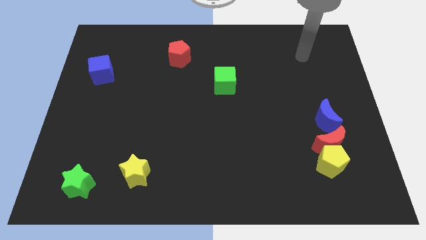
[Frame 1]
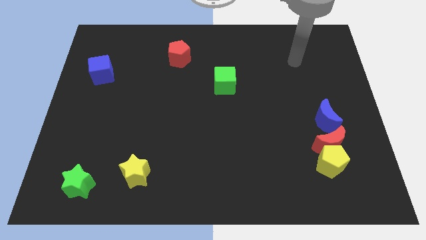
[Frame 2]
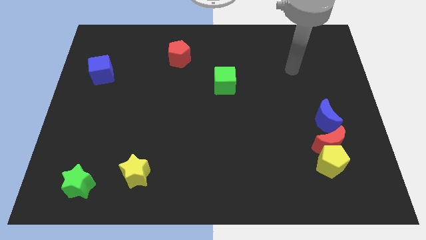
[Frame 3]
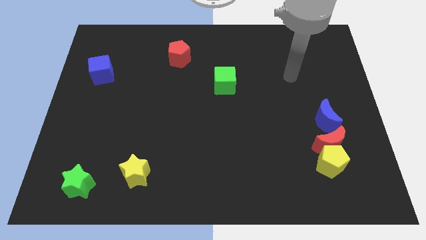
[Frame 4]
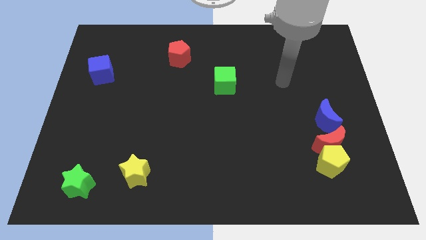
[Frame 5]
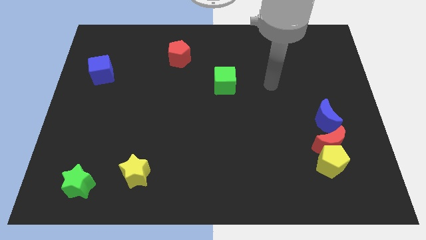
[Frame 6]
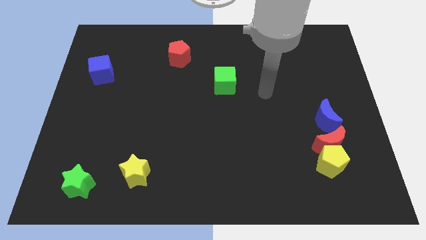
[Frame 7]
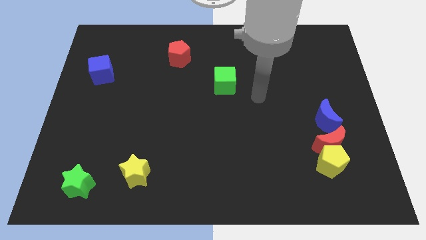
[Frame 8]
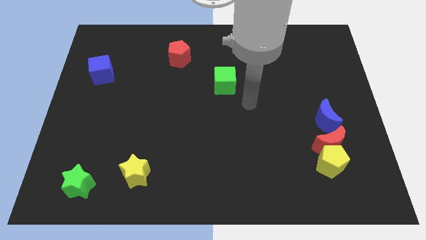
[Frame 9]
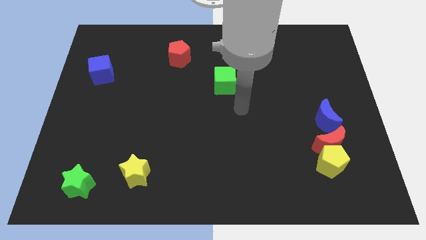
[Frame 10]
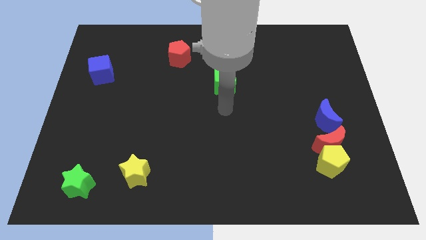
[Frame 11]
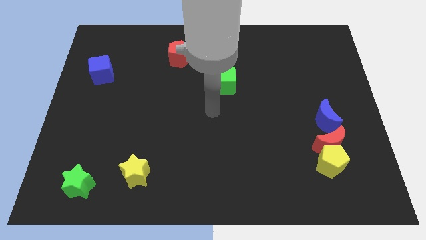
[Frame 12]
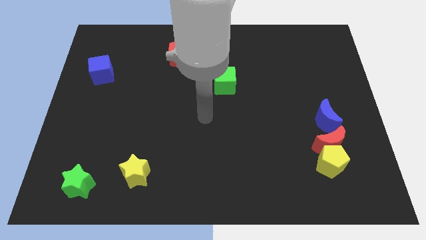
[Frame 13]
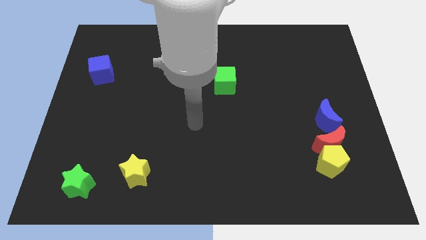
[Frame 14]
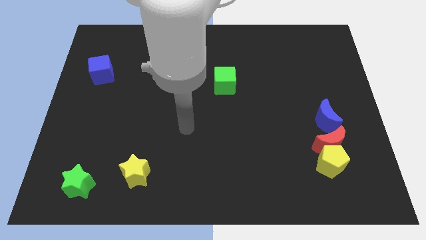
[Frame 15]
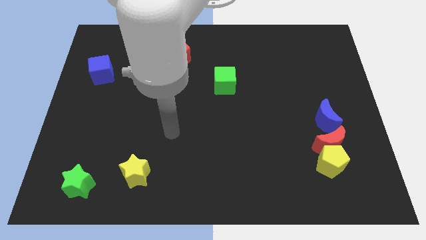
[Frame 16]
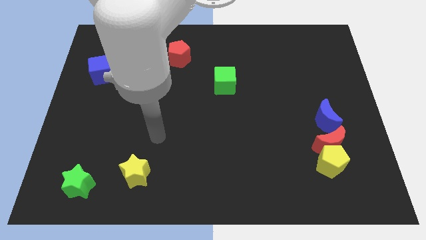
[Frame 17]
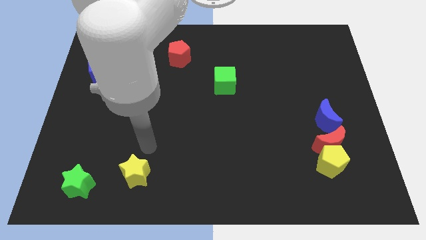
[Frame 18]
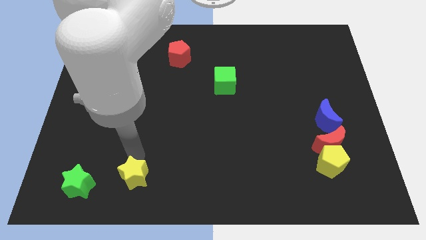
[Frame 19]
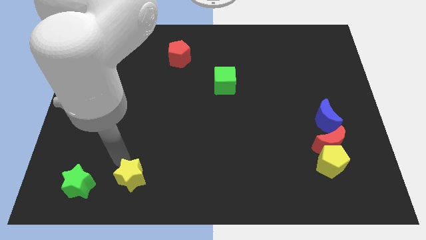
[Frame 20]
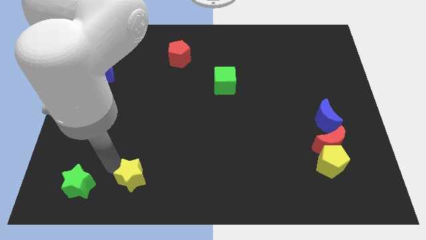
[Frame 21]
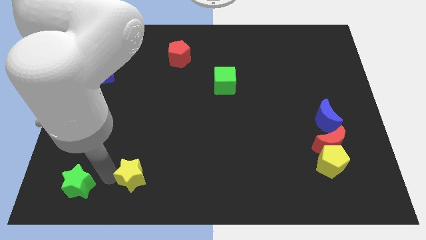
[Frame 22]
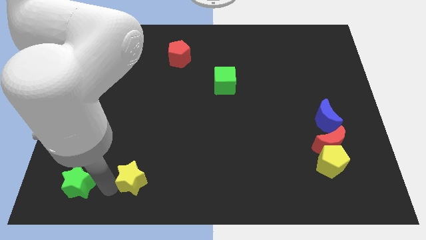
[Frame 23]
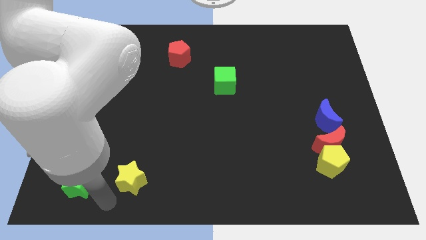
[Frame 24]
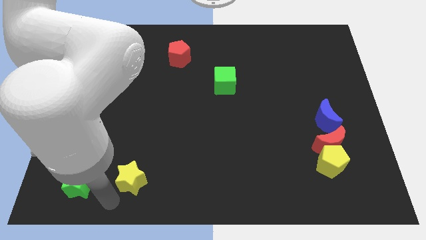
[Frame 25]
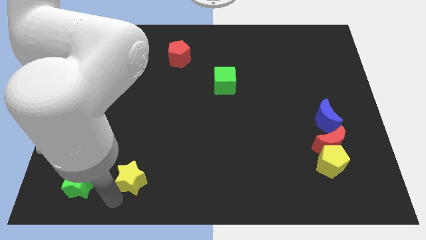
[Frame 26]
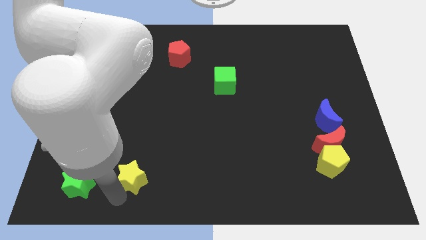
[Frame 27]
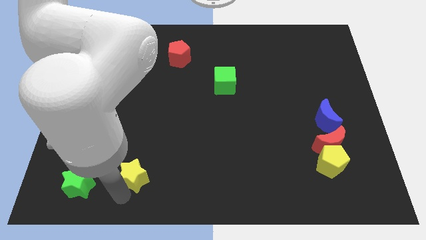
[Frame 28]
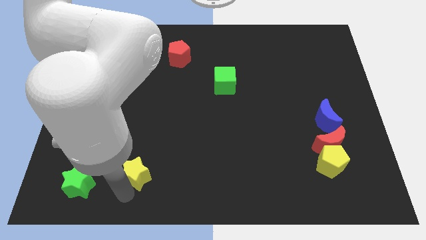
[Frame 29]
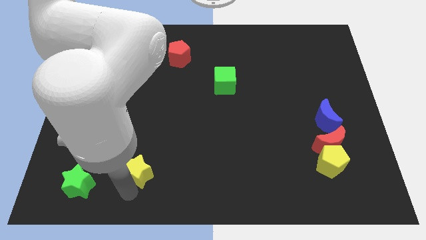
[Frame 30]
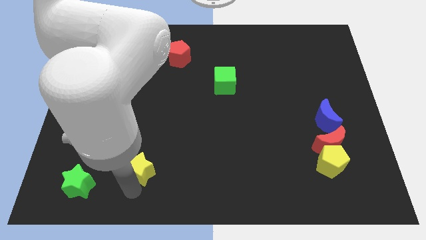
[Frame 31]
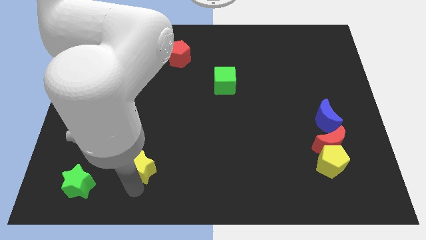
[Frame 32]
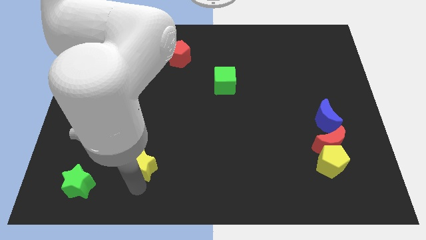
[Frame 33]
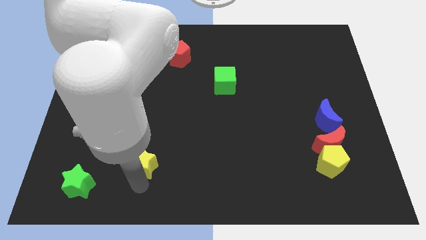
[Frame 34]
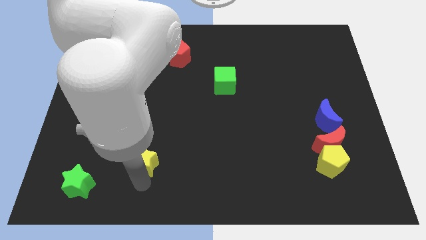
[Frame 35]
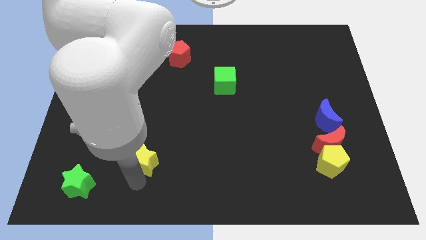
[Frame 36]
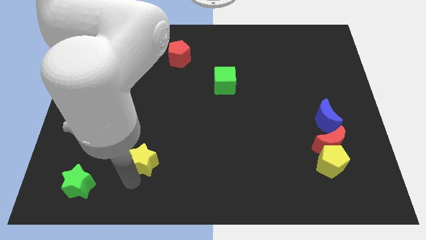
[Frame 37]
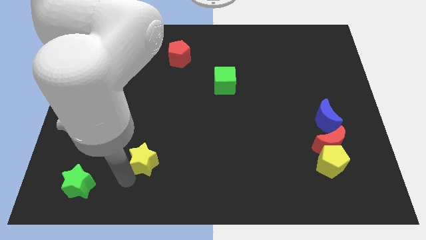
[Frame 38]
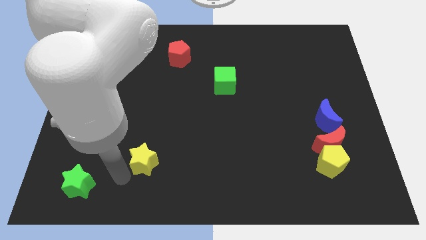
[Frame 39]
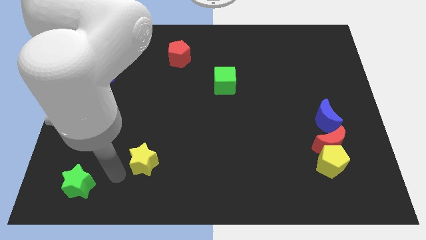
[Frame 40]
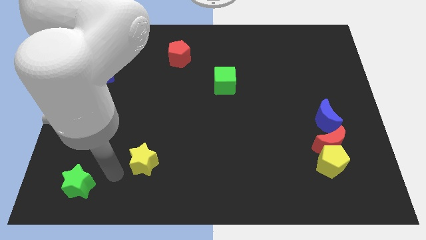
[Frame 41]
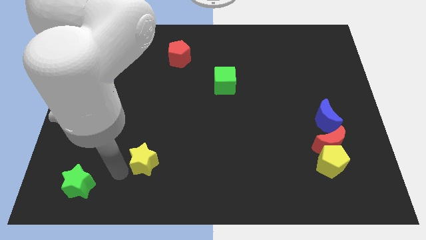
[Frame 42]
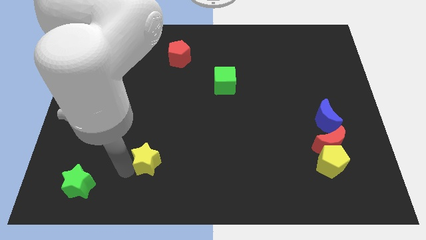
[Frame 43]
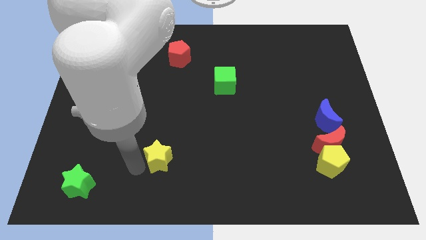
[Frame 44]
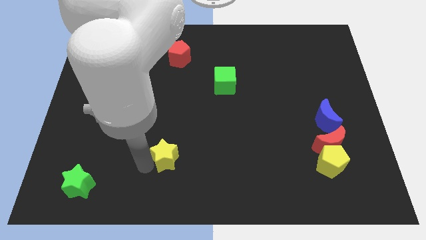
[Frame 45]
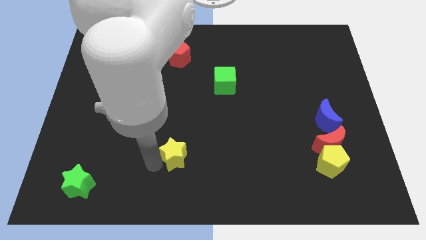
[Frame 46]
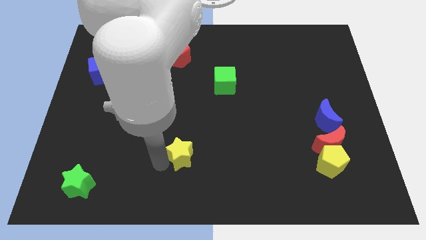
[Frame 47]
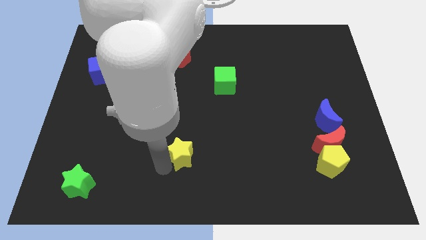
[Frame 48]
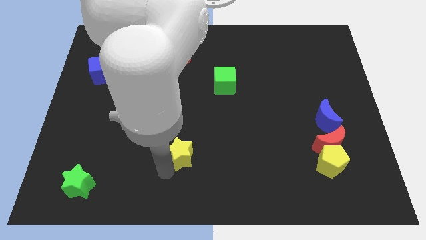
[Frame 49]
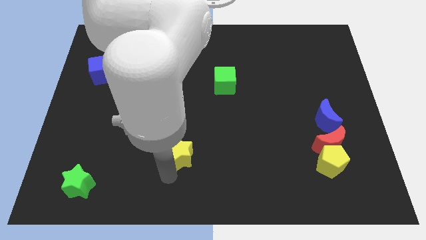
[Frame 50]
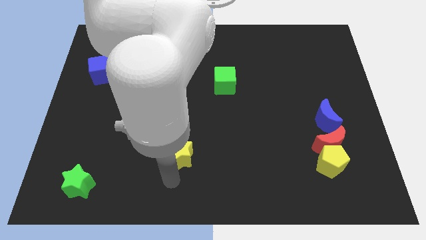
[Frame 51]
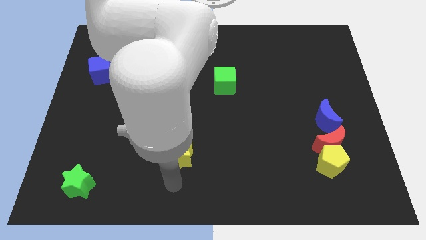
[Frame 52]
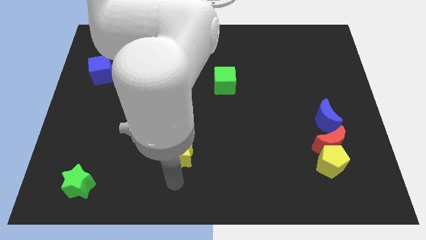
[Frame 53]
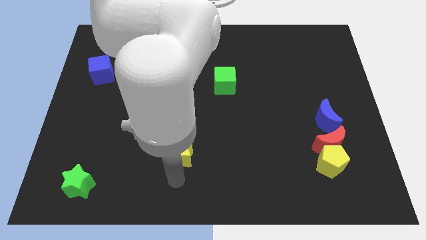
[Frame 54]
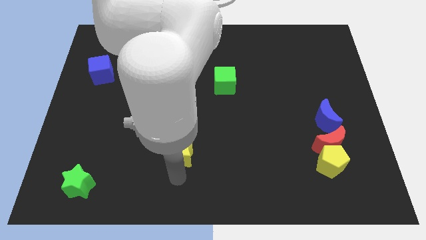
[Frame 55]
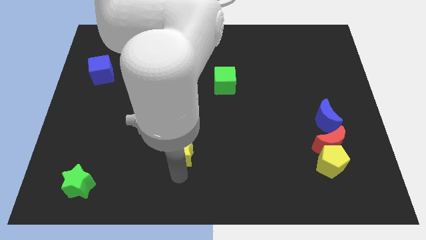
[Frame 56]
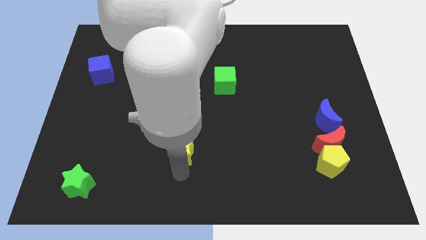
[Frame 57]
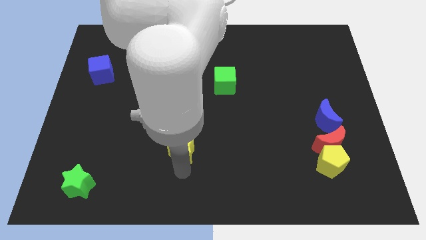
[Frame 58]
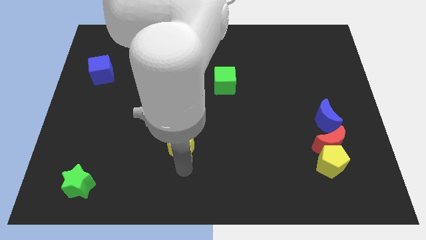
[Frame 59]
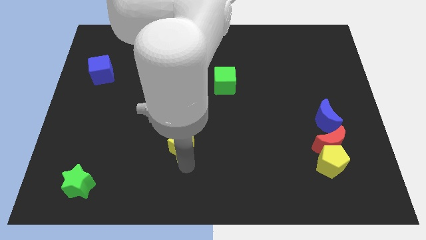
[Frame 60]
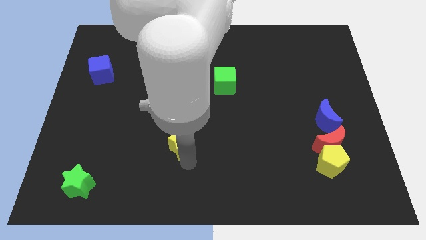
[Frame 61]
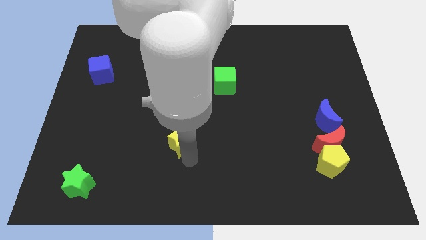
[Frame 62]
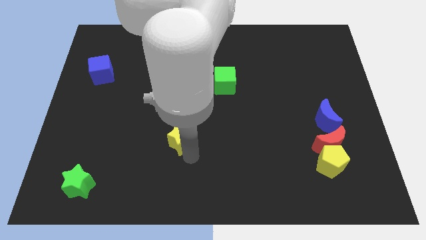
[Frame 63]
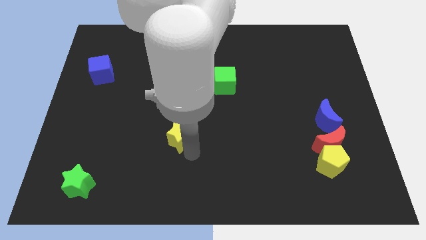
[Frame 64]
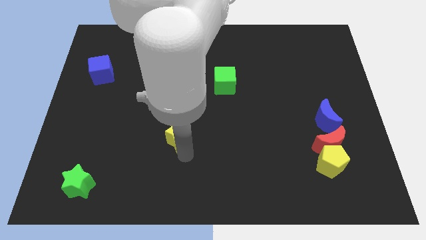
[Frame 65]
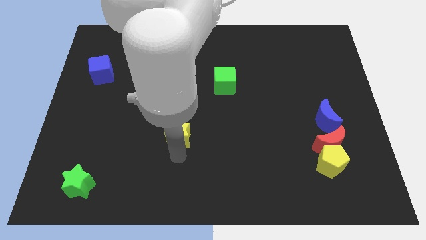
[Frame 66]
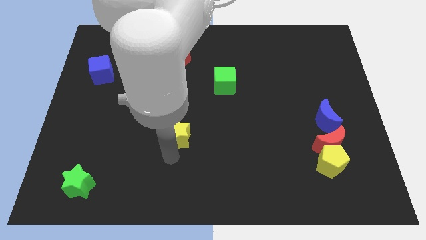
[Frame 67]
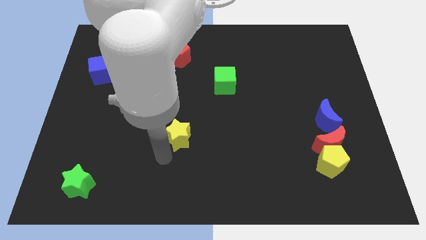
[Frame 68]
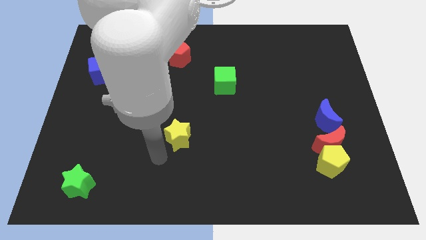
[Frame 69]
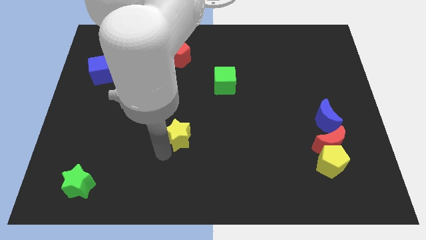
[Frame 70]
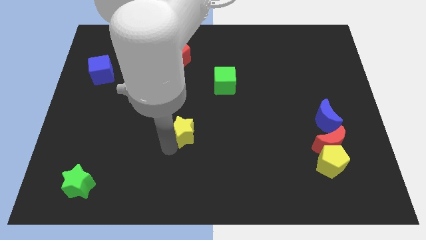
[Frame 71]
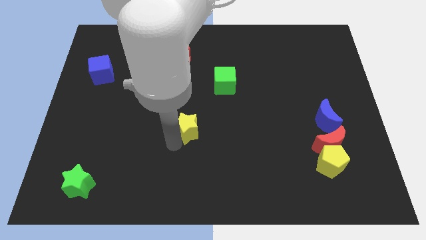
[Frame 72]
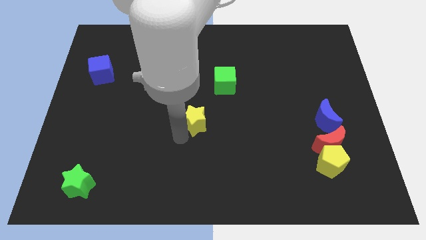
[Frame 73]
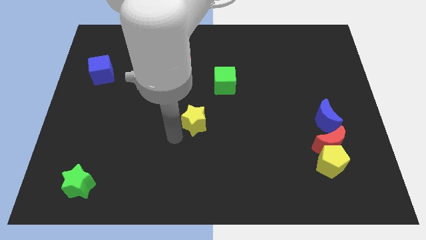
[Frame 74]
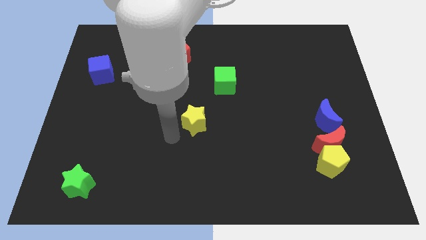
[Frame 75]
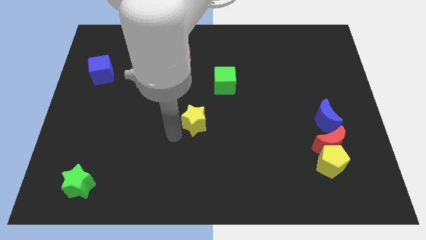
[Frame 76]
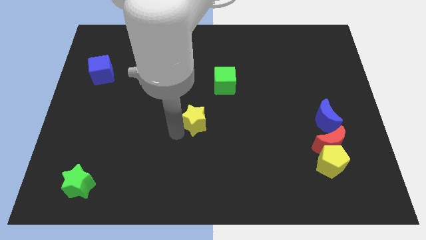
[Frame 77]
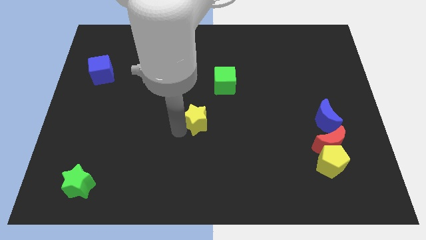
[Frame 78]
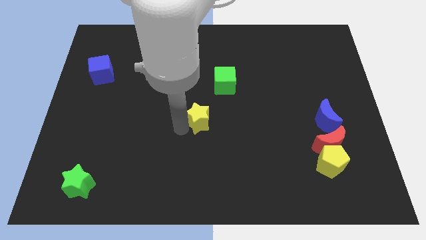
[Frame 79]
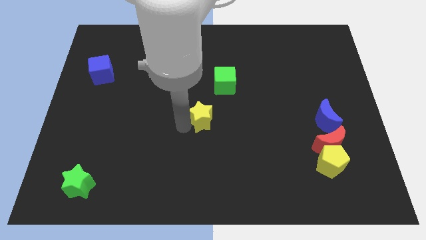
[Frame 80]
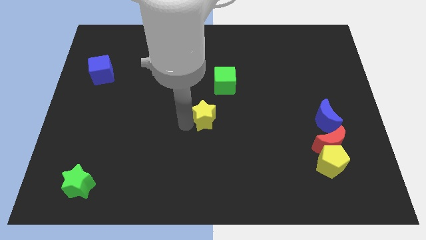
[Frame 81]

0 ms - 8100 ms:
push the yellow star up and right

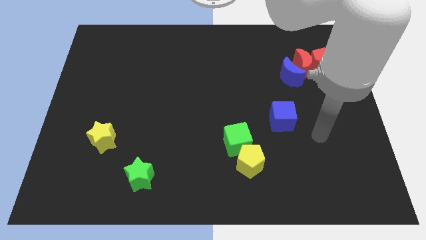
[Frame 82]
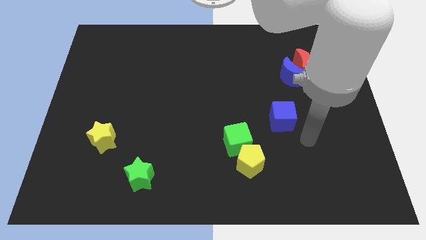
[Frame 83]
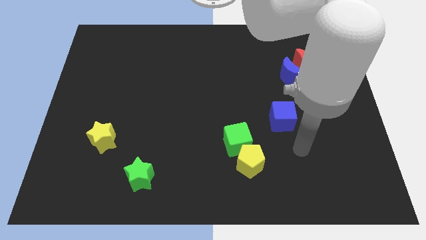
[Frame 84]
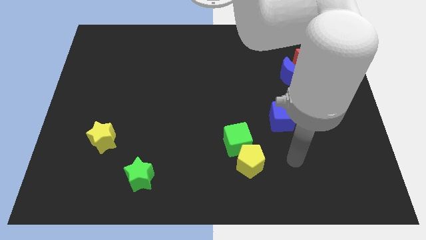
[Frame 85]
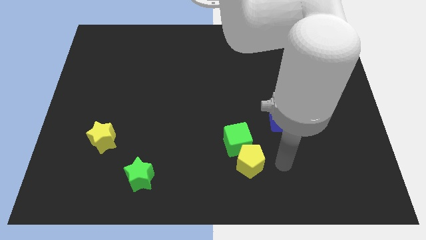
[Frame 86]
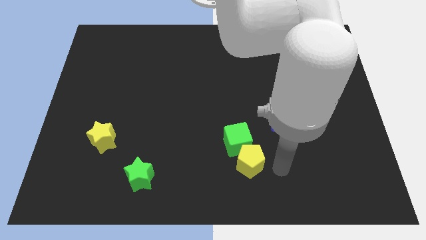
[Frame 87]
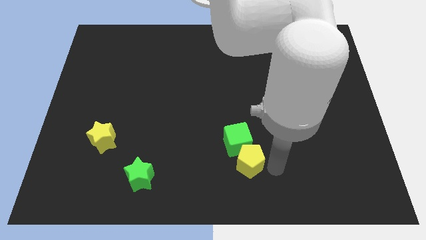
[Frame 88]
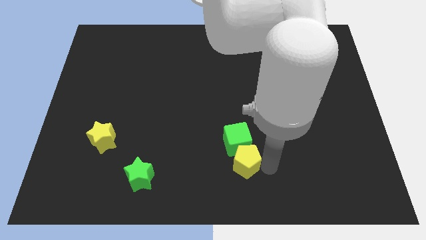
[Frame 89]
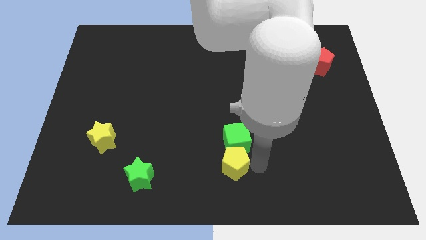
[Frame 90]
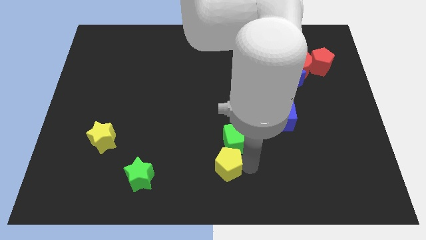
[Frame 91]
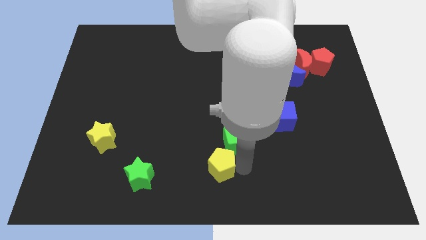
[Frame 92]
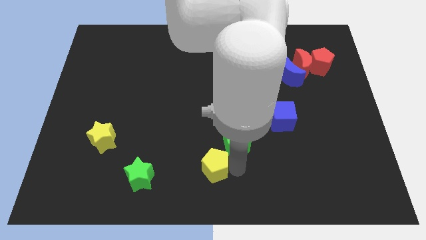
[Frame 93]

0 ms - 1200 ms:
slide the yellow pentagon a little left
